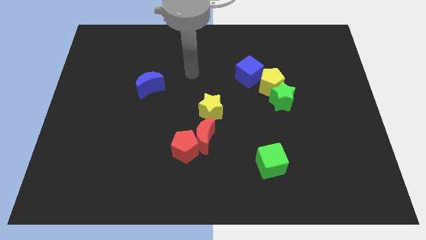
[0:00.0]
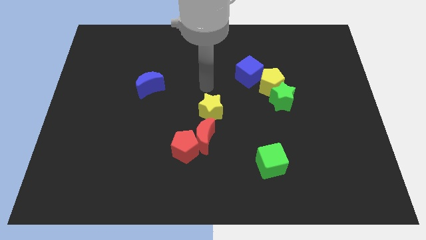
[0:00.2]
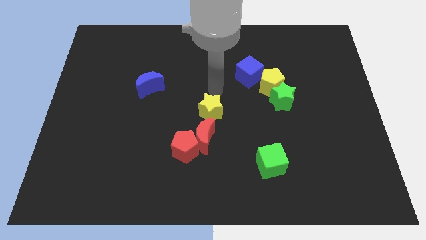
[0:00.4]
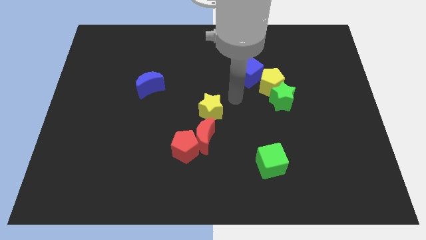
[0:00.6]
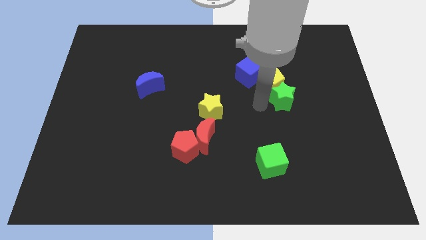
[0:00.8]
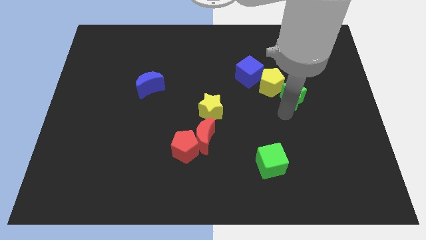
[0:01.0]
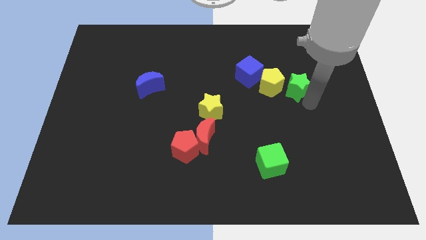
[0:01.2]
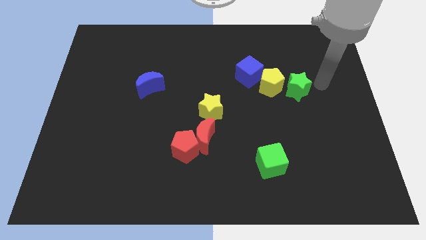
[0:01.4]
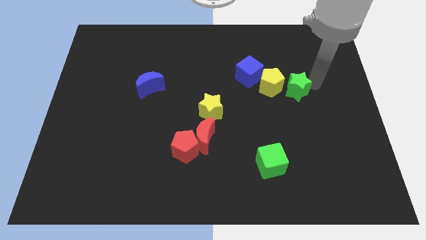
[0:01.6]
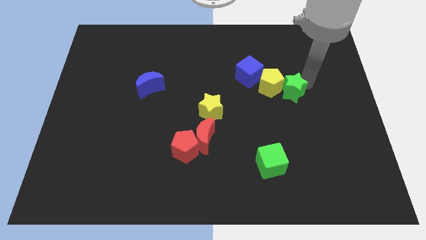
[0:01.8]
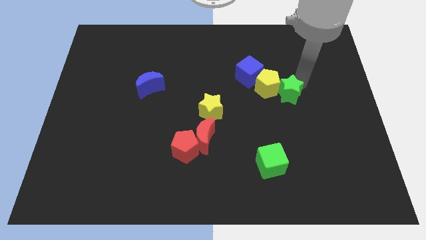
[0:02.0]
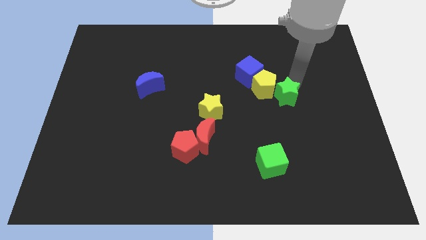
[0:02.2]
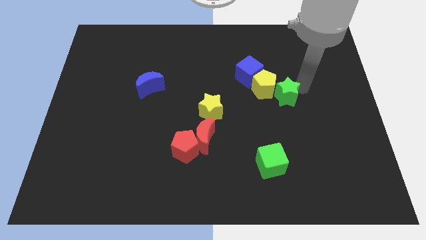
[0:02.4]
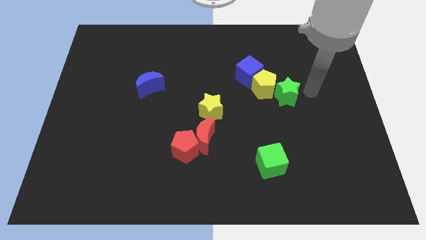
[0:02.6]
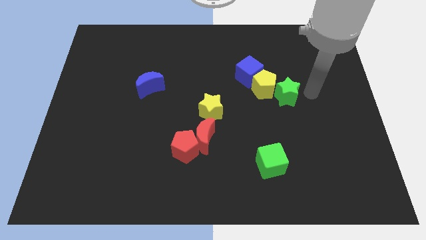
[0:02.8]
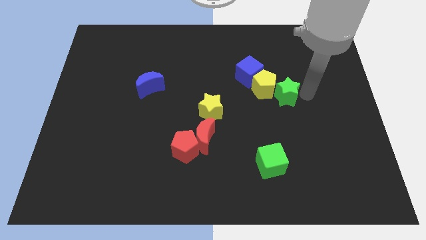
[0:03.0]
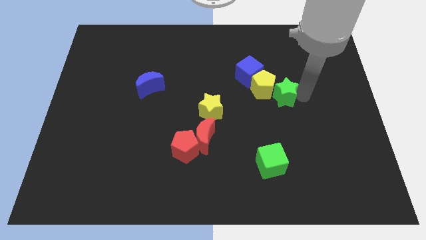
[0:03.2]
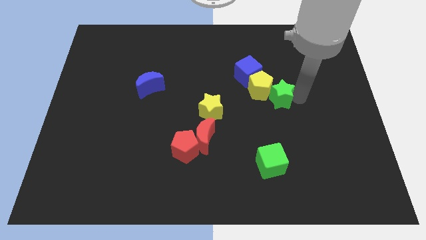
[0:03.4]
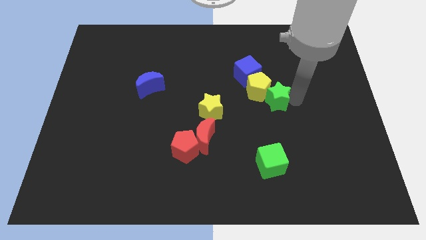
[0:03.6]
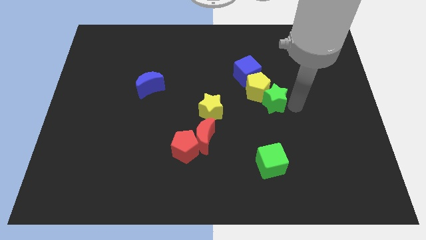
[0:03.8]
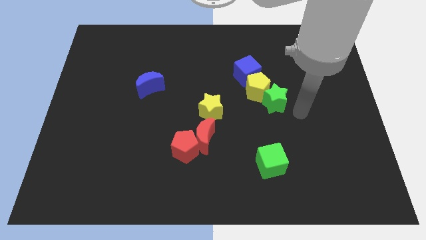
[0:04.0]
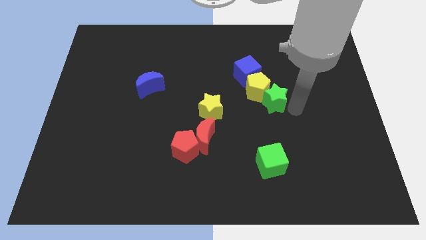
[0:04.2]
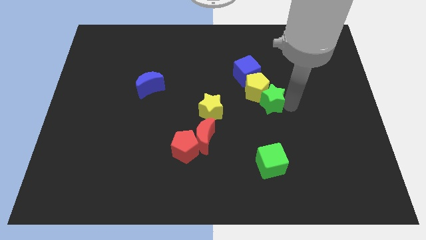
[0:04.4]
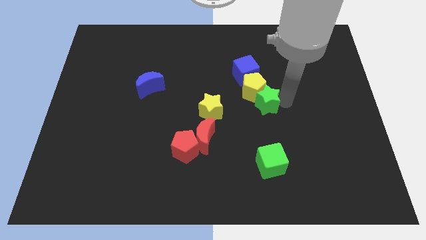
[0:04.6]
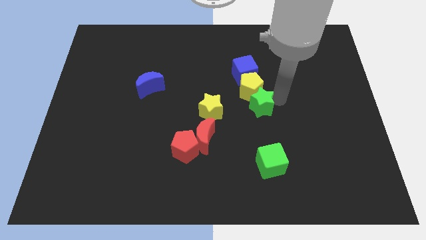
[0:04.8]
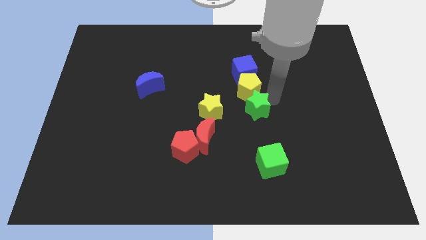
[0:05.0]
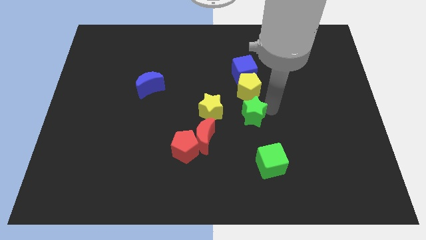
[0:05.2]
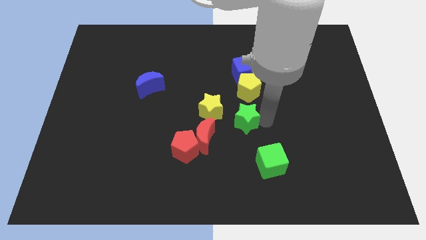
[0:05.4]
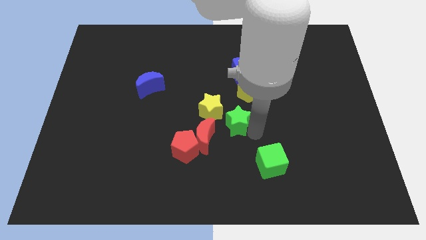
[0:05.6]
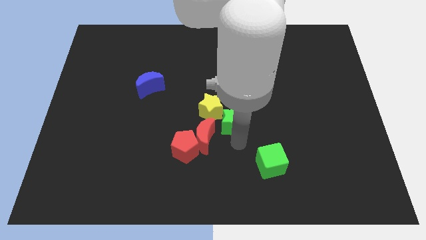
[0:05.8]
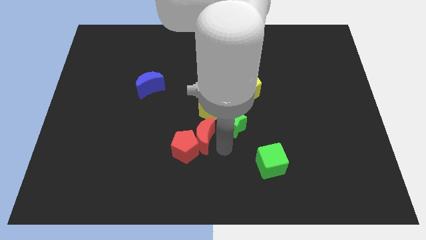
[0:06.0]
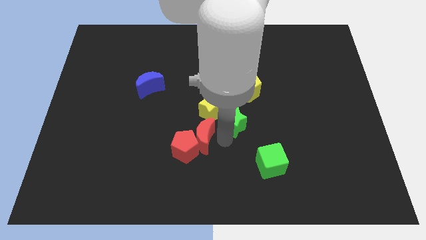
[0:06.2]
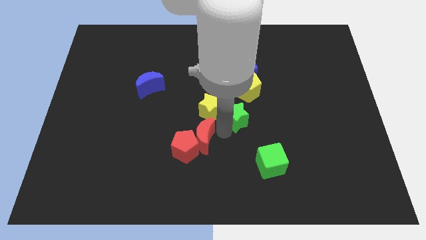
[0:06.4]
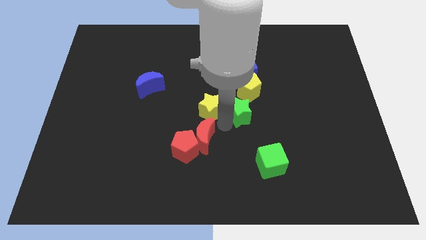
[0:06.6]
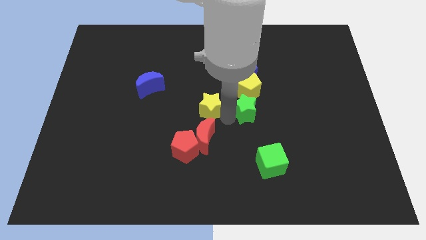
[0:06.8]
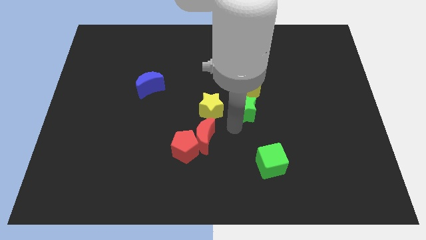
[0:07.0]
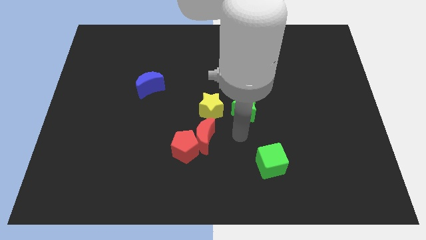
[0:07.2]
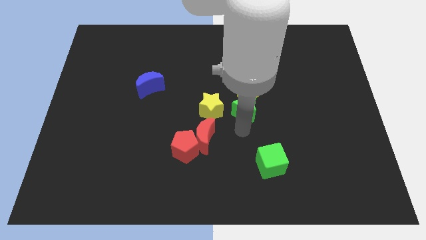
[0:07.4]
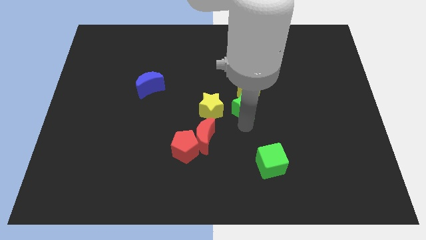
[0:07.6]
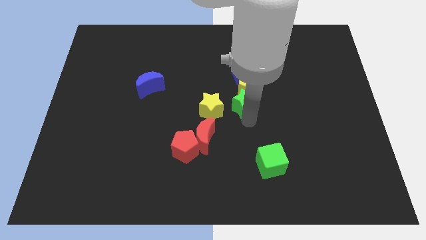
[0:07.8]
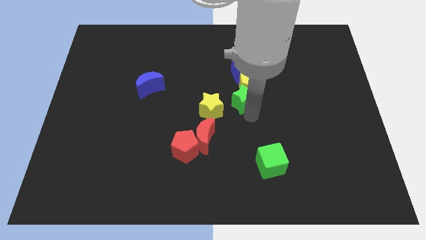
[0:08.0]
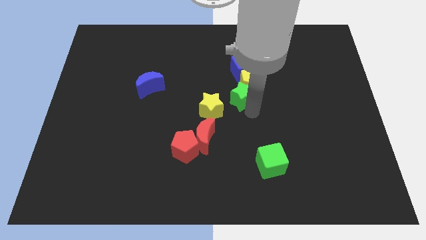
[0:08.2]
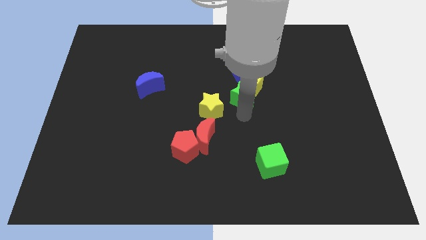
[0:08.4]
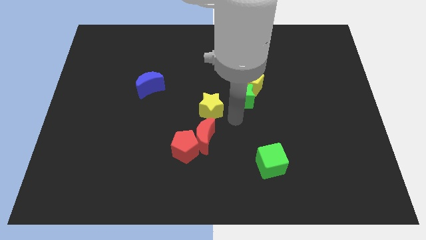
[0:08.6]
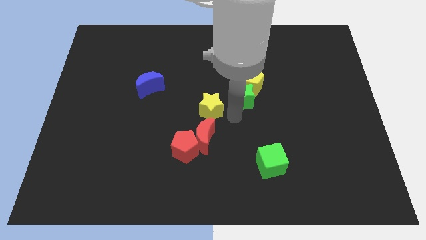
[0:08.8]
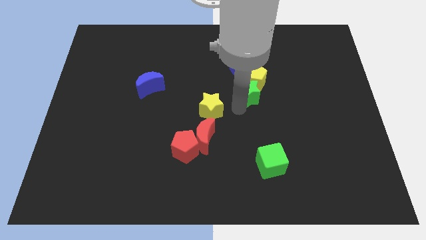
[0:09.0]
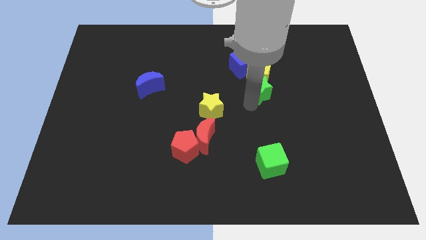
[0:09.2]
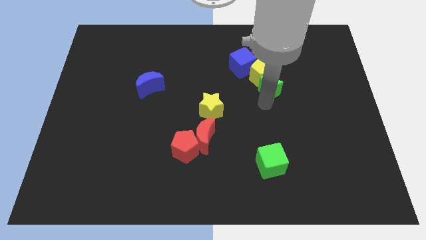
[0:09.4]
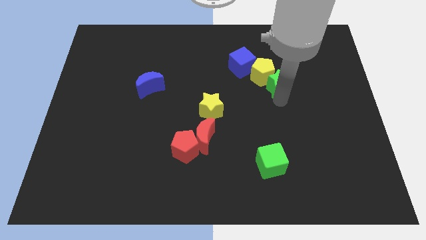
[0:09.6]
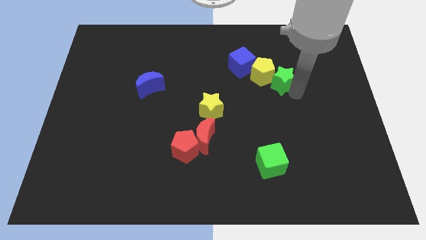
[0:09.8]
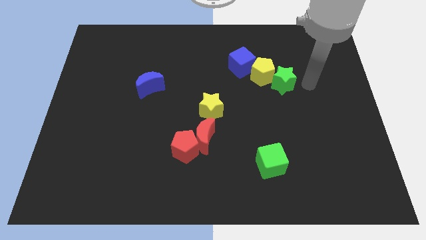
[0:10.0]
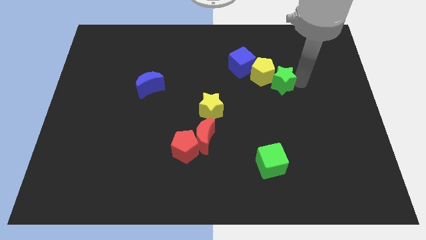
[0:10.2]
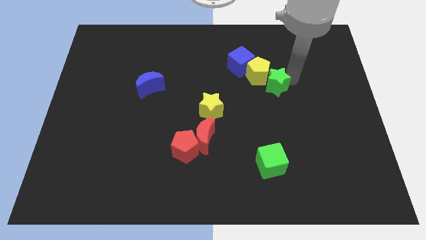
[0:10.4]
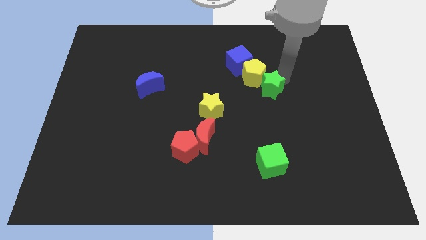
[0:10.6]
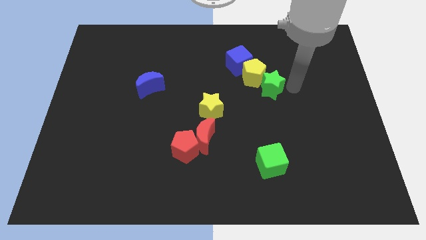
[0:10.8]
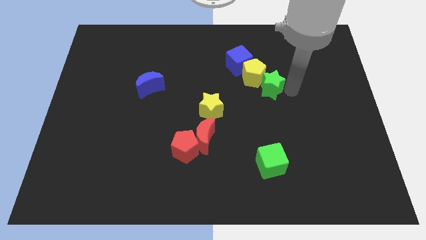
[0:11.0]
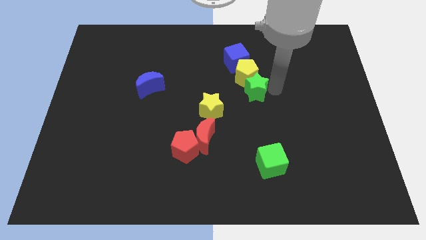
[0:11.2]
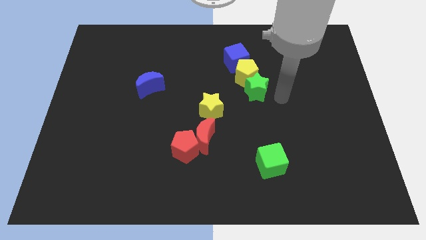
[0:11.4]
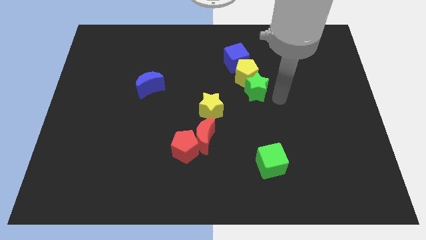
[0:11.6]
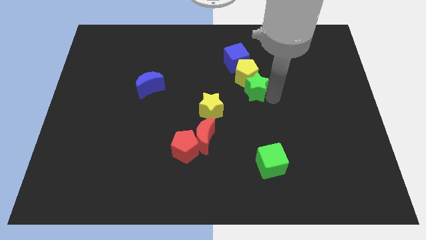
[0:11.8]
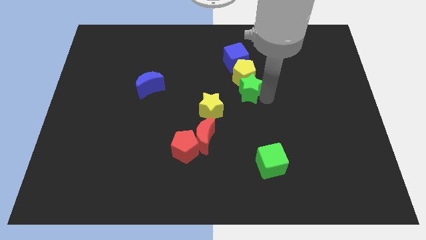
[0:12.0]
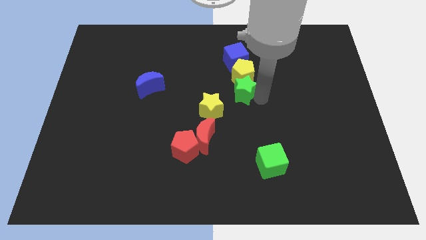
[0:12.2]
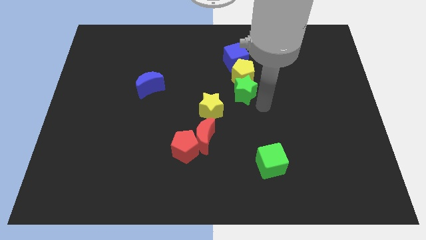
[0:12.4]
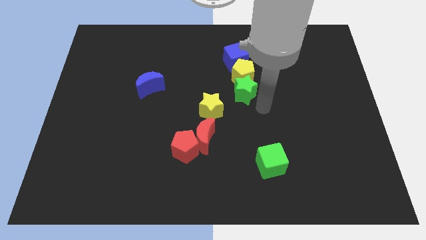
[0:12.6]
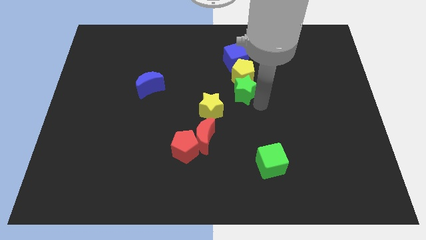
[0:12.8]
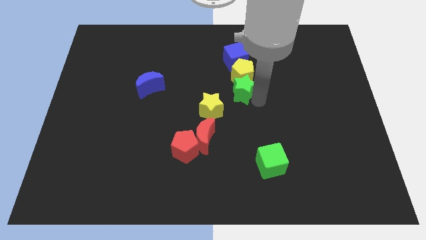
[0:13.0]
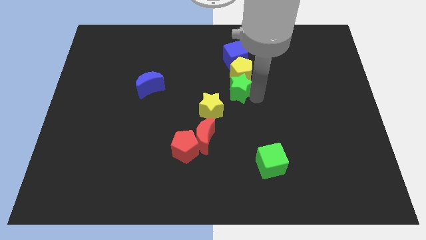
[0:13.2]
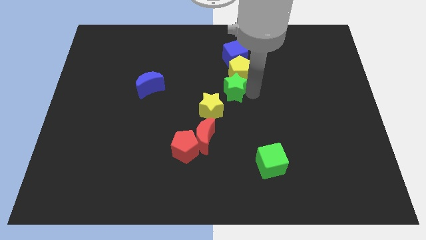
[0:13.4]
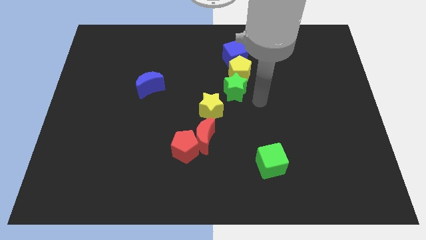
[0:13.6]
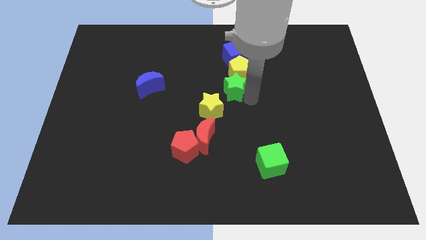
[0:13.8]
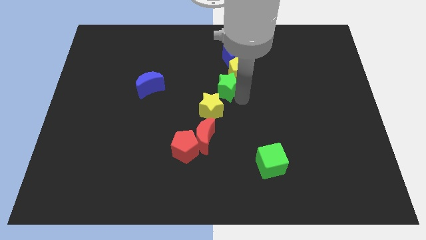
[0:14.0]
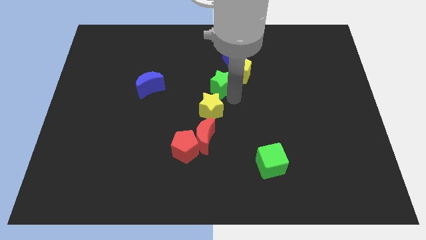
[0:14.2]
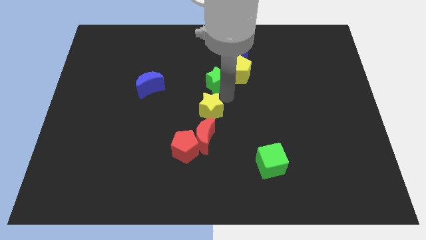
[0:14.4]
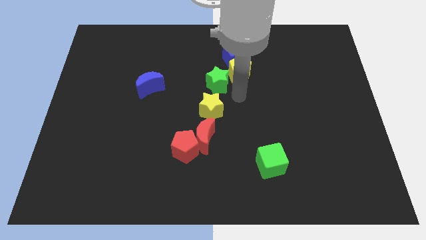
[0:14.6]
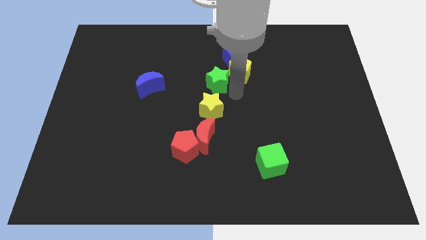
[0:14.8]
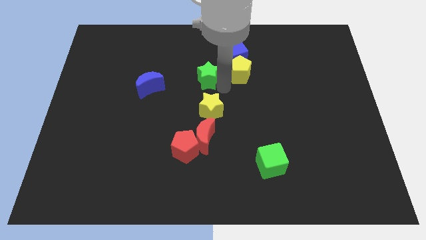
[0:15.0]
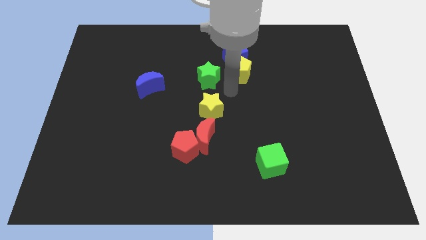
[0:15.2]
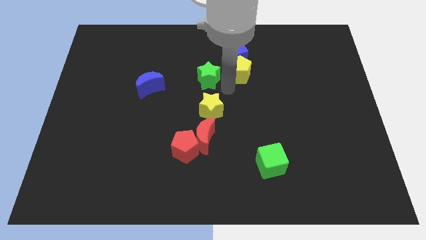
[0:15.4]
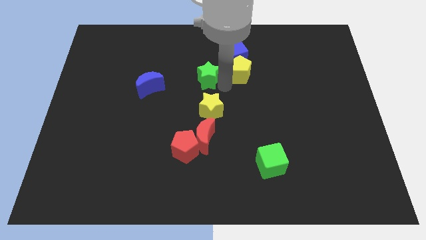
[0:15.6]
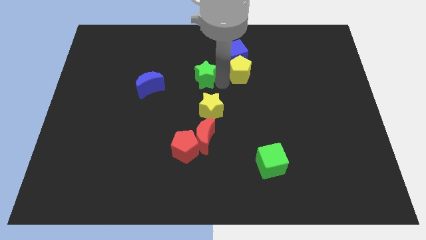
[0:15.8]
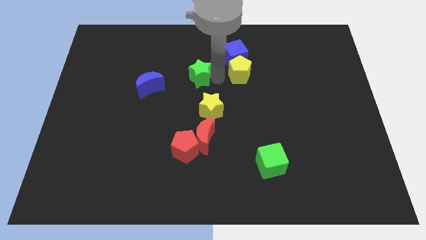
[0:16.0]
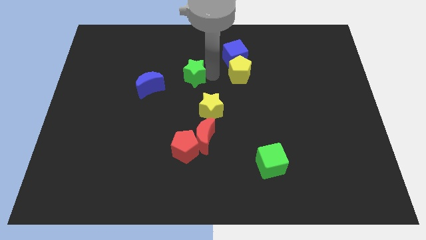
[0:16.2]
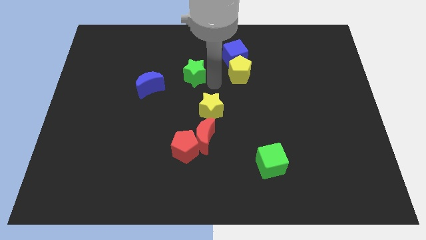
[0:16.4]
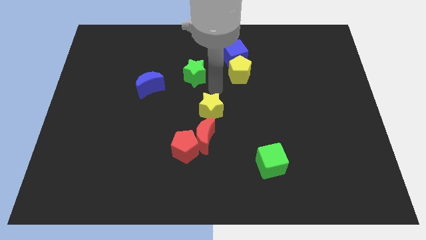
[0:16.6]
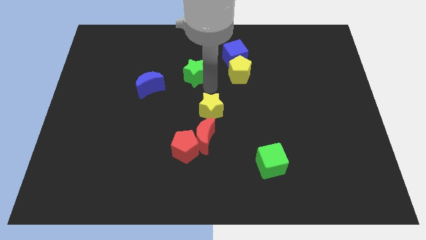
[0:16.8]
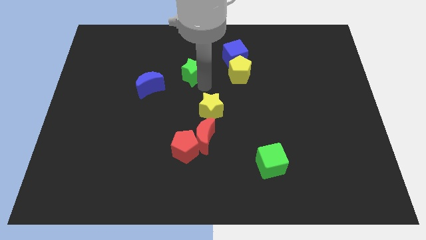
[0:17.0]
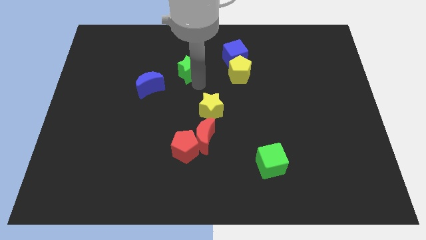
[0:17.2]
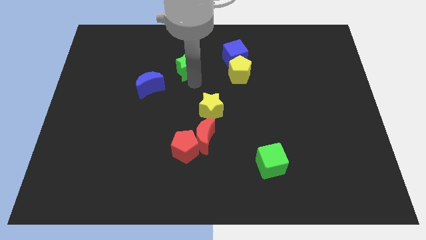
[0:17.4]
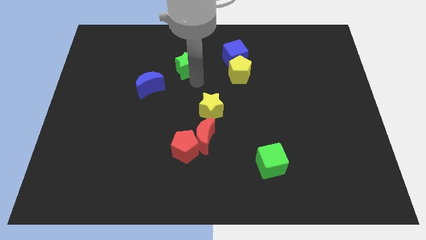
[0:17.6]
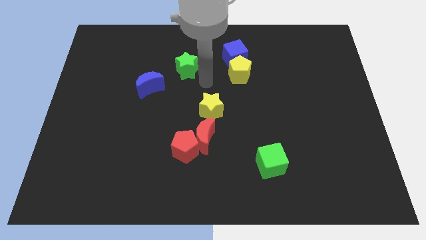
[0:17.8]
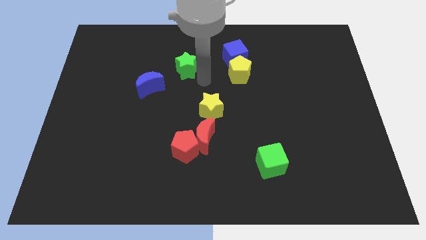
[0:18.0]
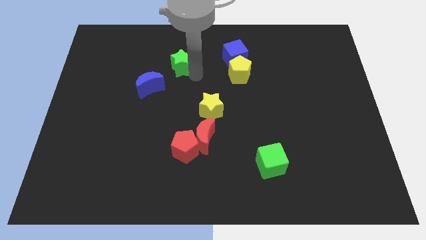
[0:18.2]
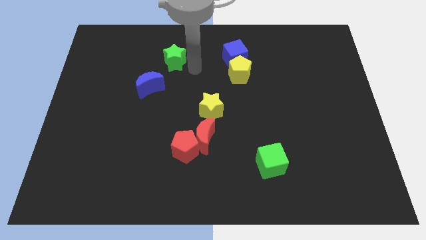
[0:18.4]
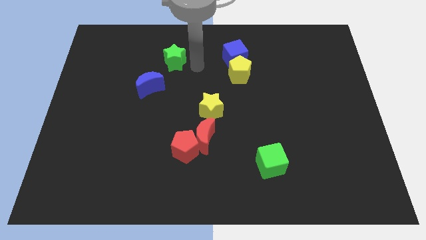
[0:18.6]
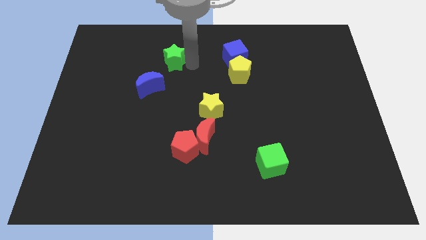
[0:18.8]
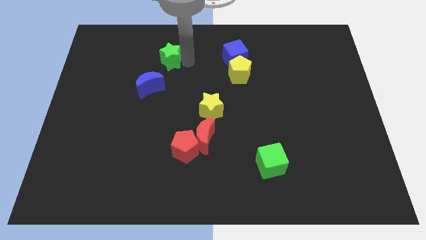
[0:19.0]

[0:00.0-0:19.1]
put the green star to the top side of the blue moon
